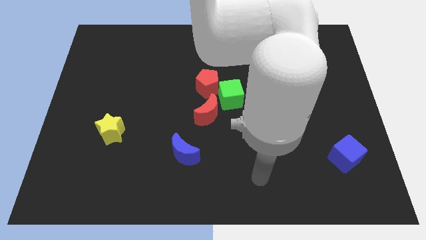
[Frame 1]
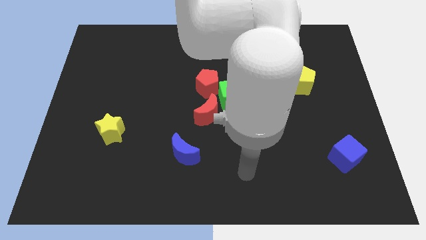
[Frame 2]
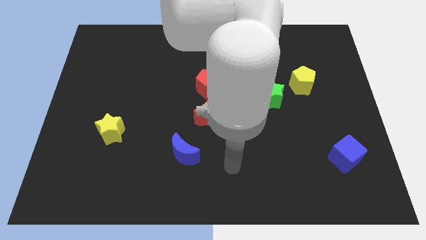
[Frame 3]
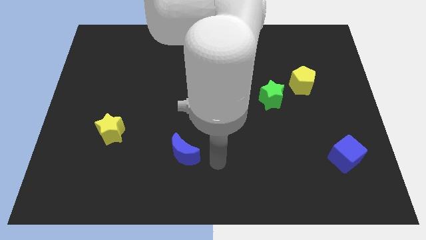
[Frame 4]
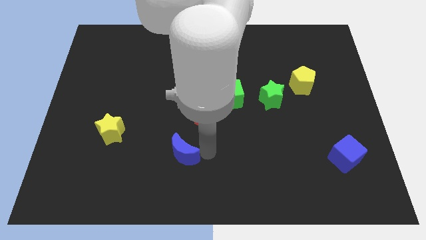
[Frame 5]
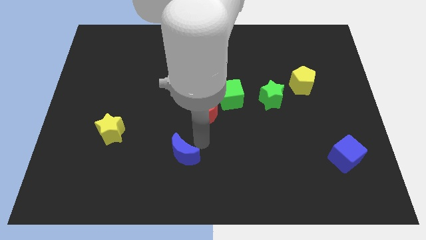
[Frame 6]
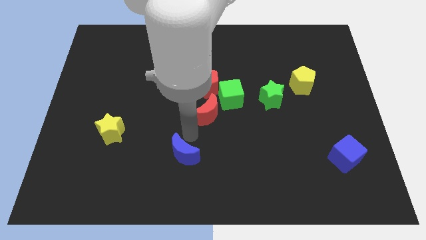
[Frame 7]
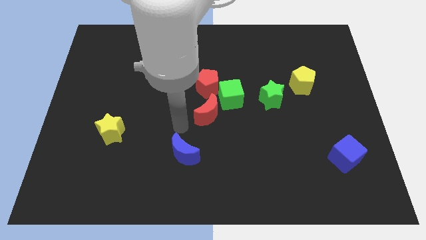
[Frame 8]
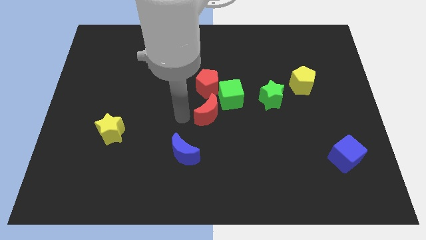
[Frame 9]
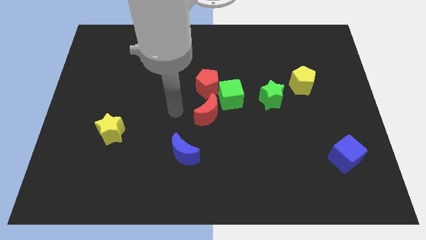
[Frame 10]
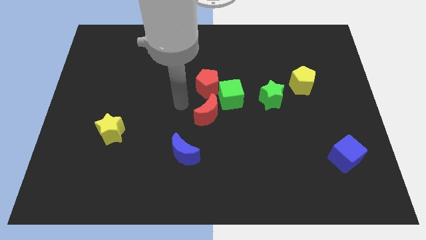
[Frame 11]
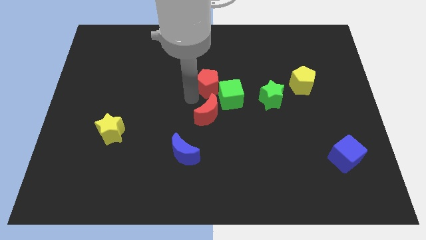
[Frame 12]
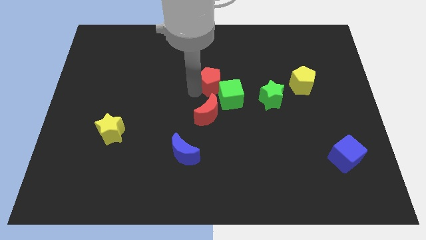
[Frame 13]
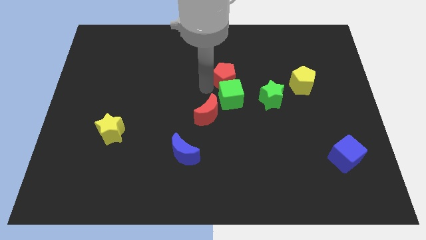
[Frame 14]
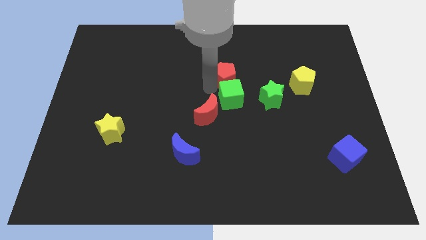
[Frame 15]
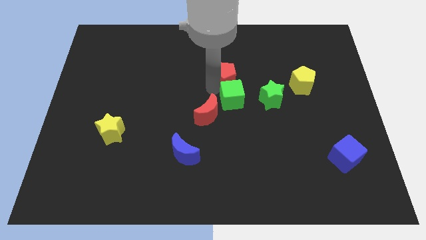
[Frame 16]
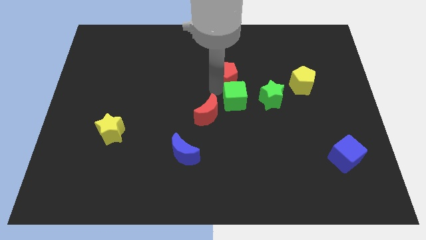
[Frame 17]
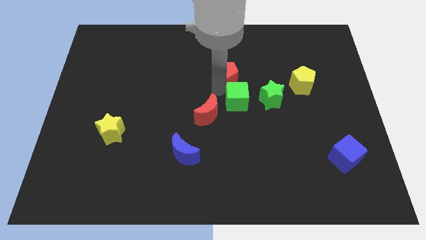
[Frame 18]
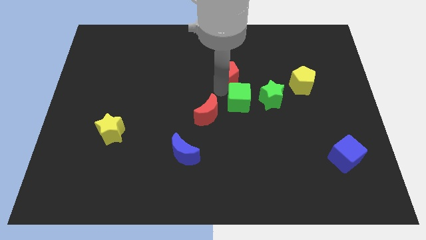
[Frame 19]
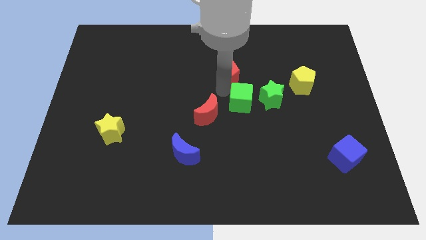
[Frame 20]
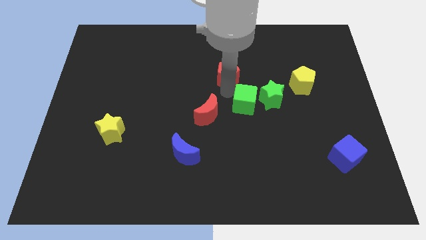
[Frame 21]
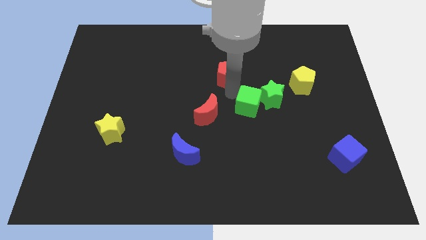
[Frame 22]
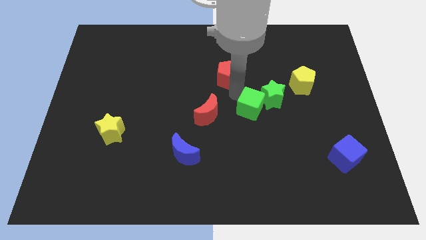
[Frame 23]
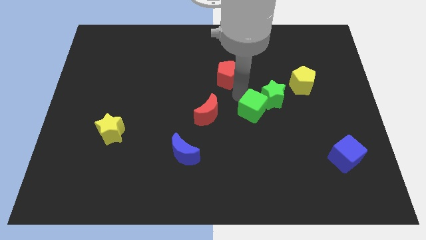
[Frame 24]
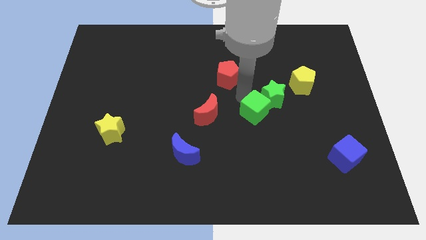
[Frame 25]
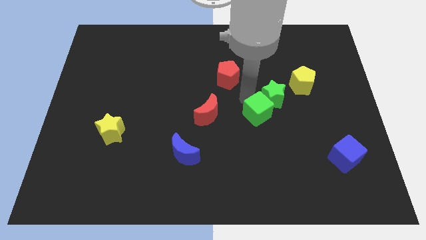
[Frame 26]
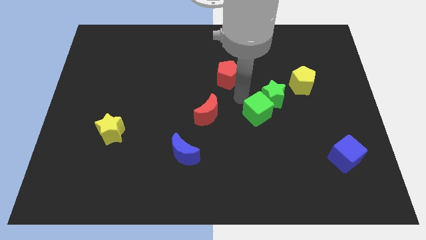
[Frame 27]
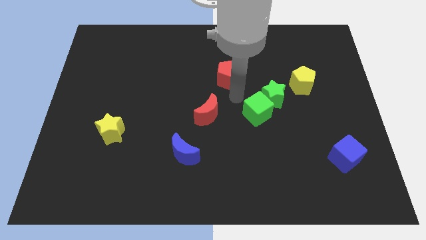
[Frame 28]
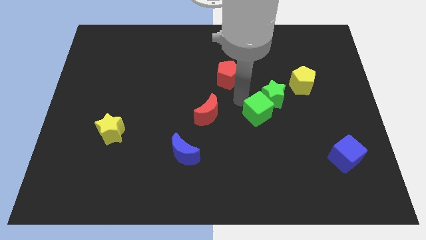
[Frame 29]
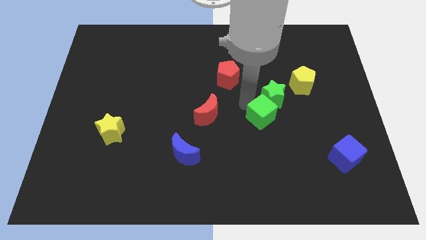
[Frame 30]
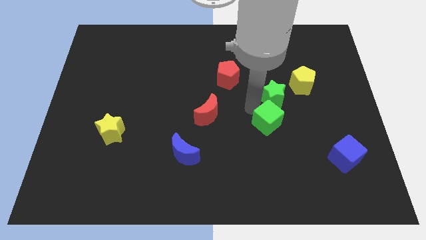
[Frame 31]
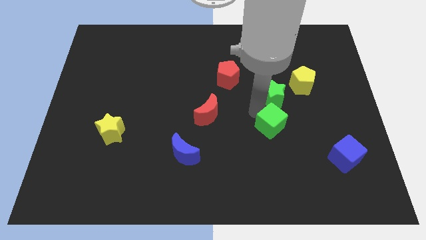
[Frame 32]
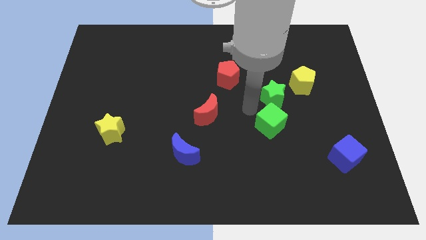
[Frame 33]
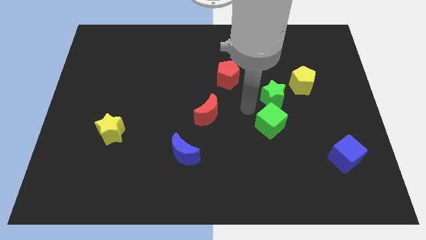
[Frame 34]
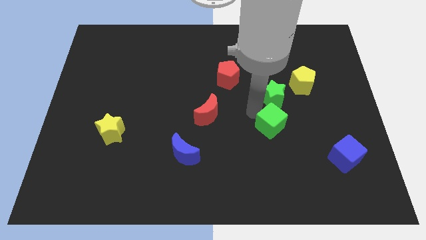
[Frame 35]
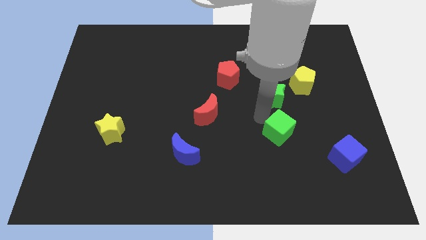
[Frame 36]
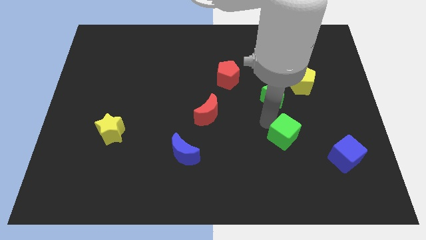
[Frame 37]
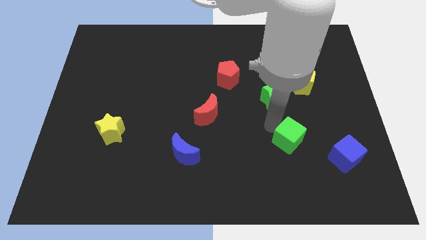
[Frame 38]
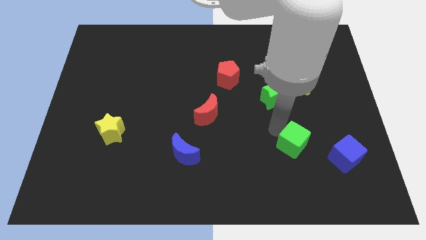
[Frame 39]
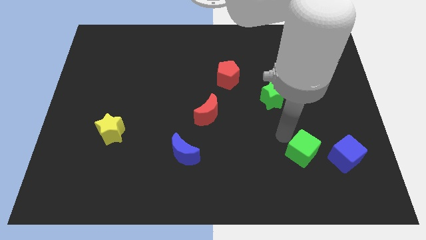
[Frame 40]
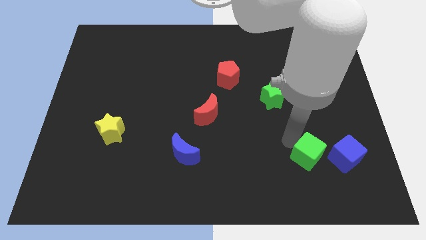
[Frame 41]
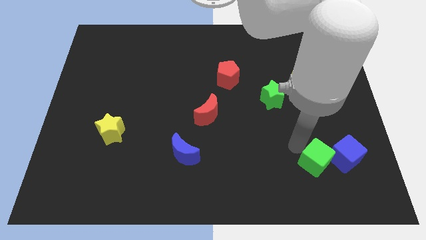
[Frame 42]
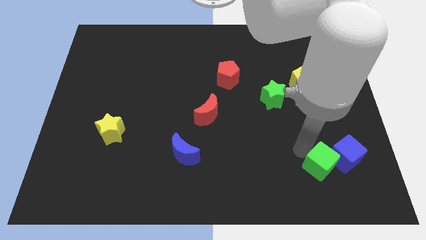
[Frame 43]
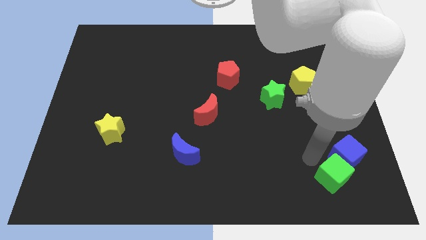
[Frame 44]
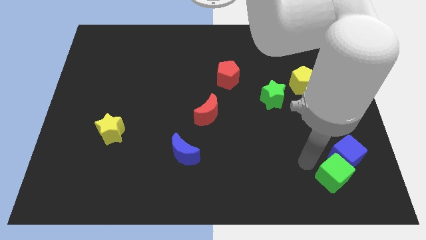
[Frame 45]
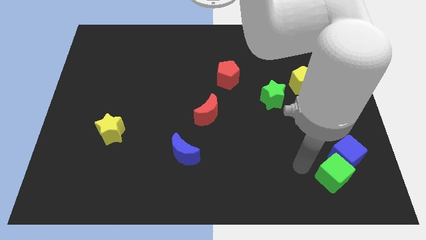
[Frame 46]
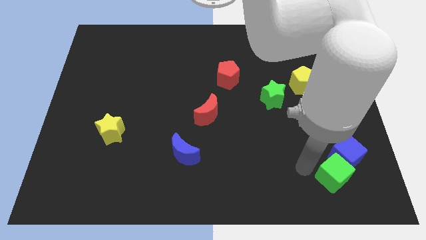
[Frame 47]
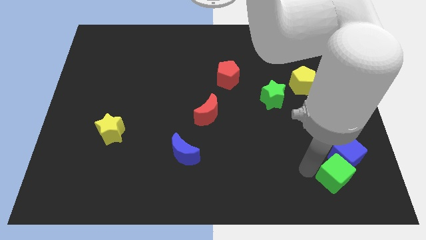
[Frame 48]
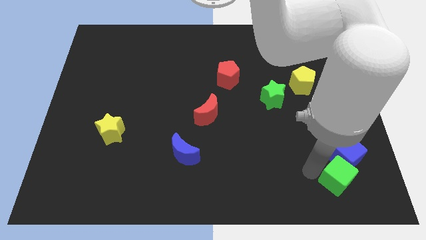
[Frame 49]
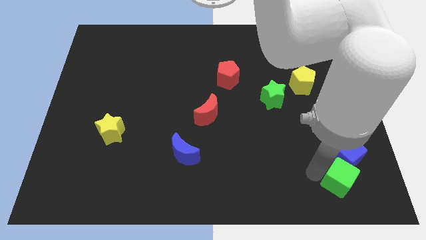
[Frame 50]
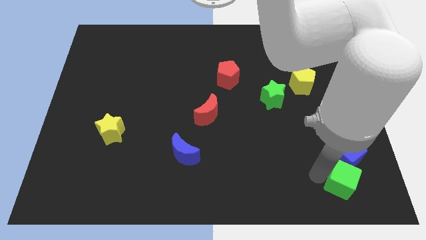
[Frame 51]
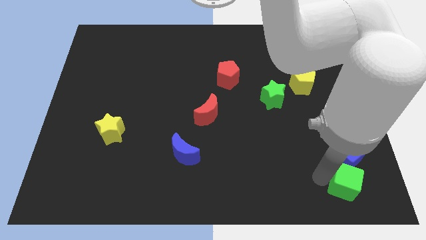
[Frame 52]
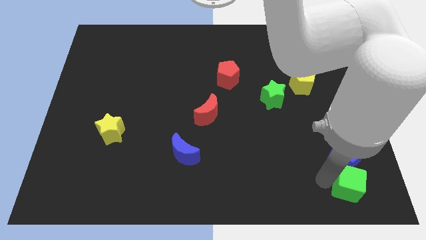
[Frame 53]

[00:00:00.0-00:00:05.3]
put the green cube to the lower right corner

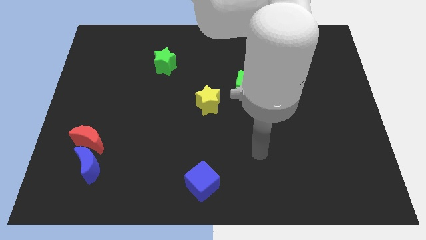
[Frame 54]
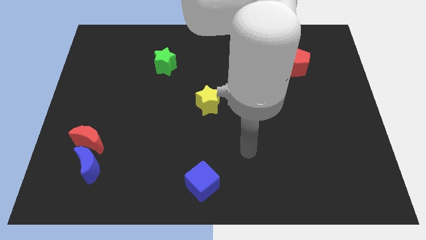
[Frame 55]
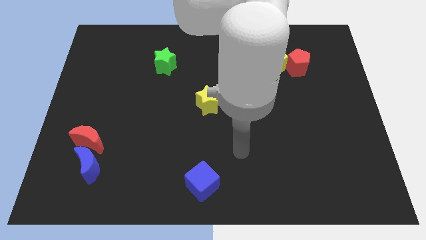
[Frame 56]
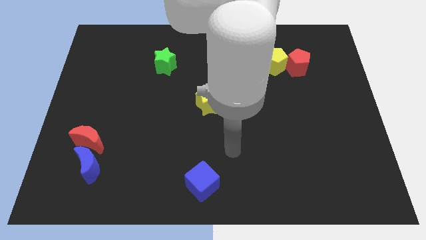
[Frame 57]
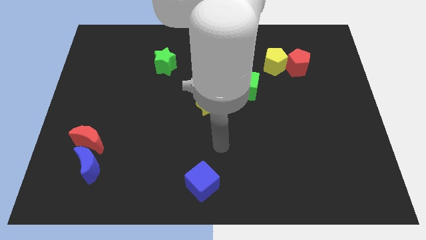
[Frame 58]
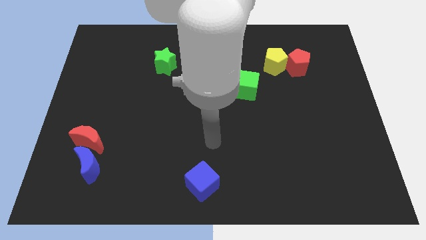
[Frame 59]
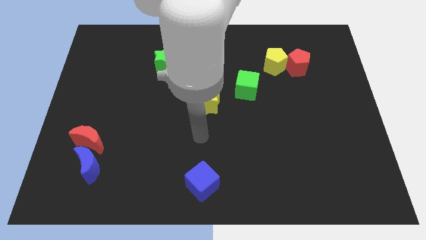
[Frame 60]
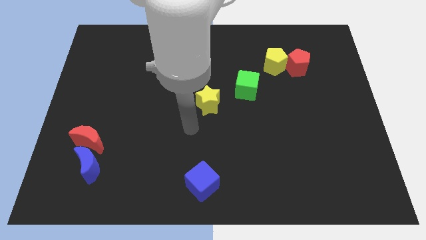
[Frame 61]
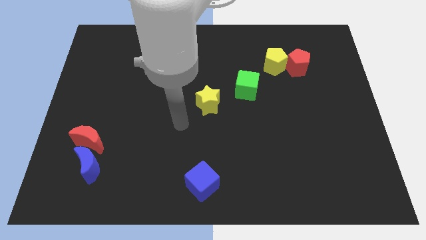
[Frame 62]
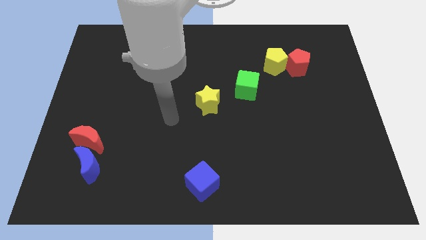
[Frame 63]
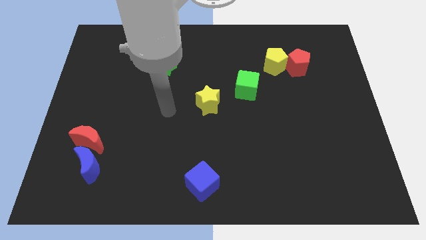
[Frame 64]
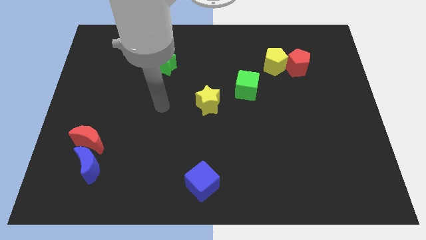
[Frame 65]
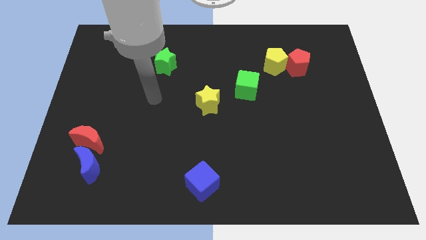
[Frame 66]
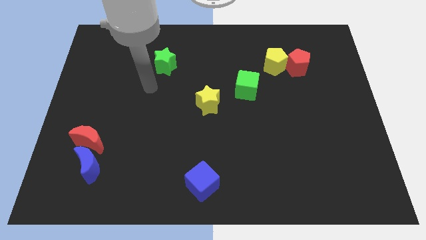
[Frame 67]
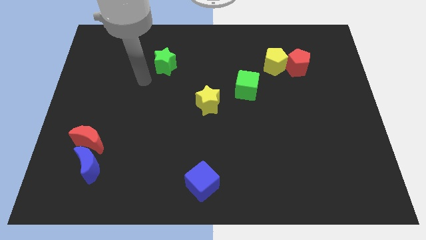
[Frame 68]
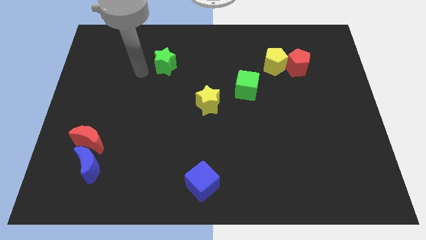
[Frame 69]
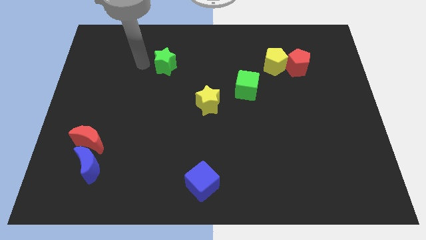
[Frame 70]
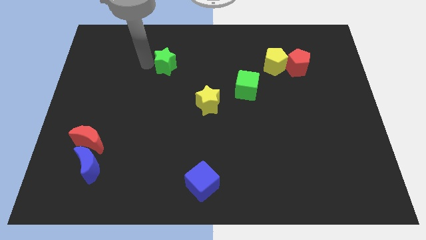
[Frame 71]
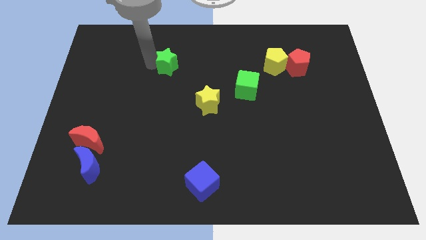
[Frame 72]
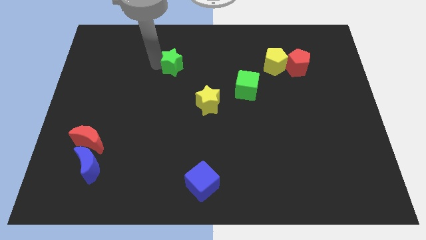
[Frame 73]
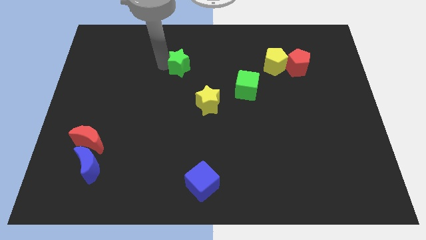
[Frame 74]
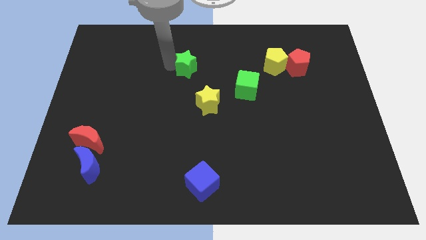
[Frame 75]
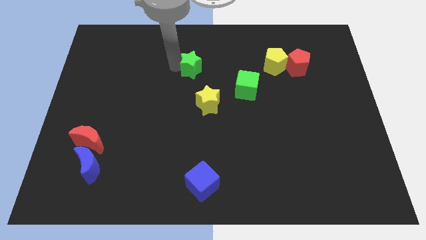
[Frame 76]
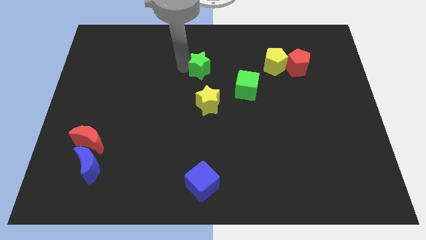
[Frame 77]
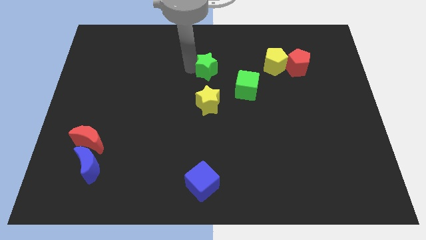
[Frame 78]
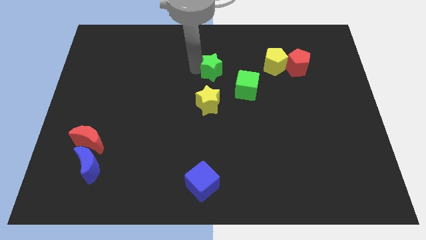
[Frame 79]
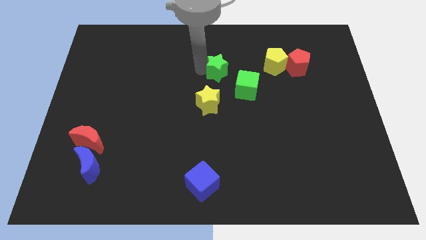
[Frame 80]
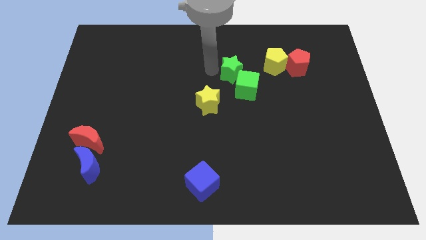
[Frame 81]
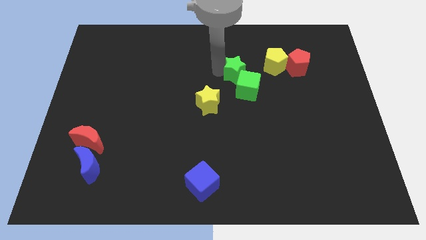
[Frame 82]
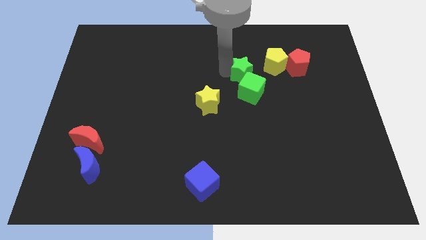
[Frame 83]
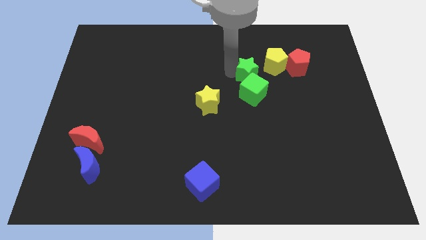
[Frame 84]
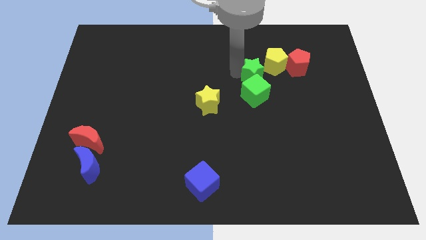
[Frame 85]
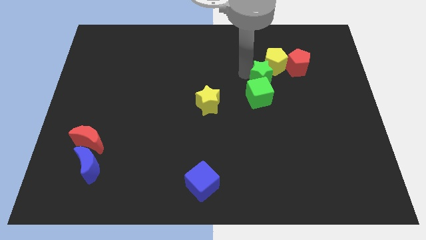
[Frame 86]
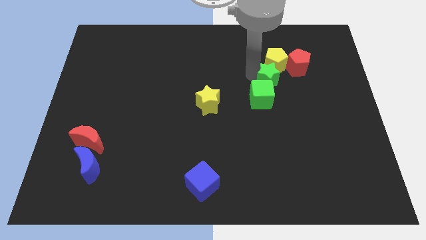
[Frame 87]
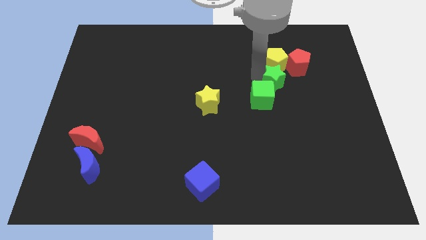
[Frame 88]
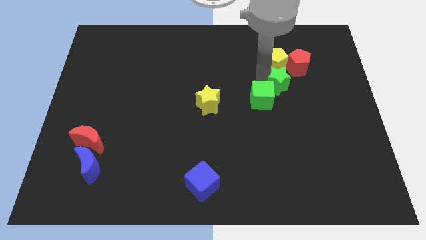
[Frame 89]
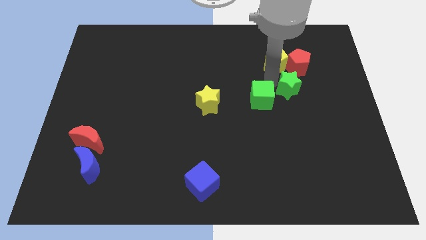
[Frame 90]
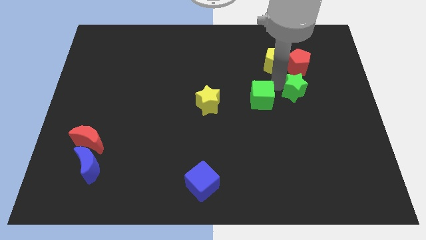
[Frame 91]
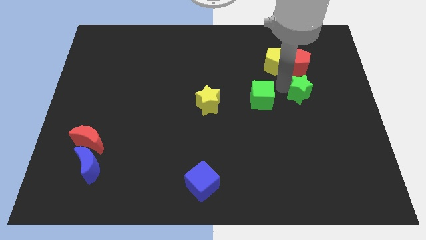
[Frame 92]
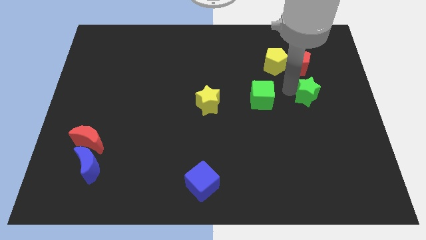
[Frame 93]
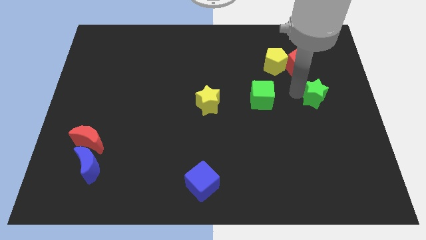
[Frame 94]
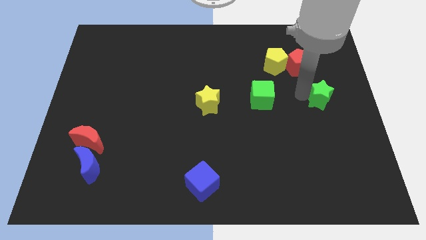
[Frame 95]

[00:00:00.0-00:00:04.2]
push the green star to the right side
